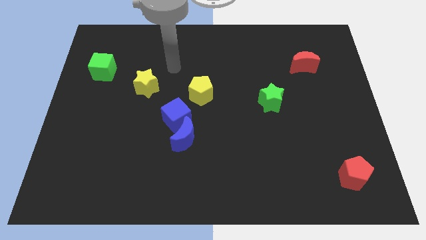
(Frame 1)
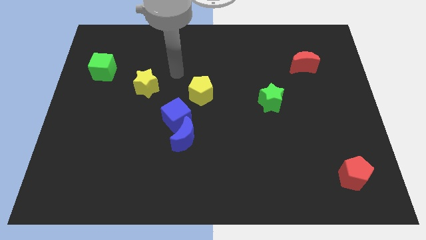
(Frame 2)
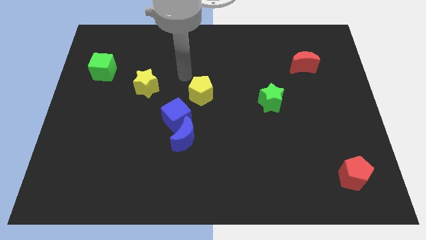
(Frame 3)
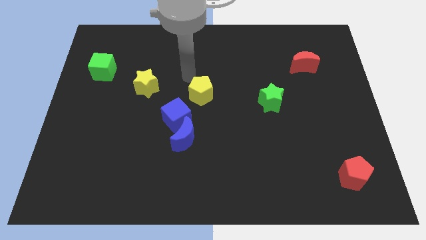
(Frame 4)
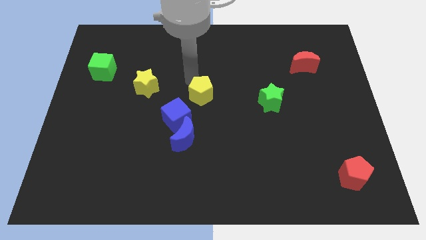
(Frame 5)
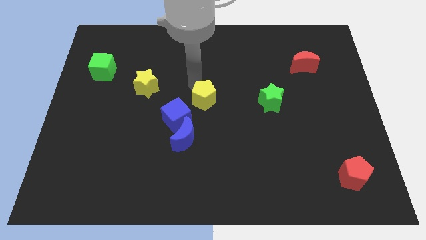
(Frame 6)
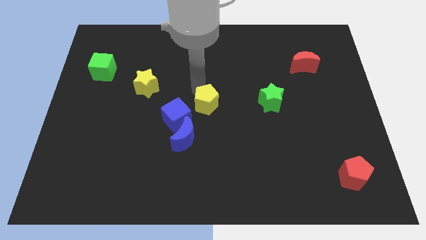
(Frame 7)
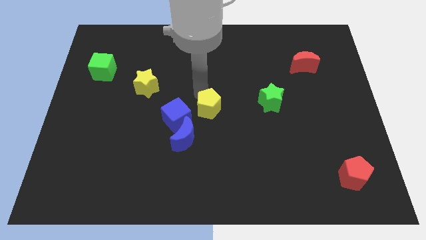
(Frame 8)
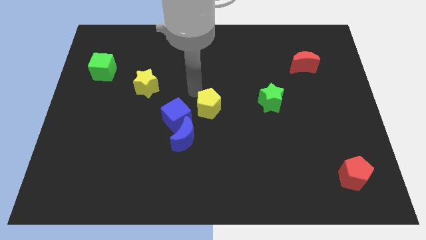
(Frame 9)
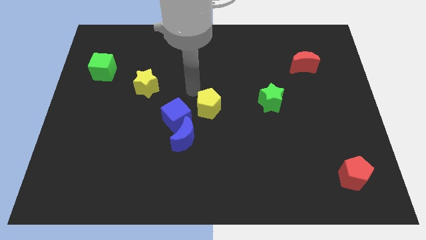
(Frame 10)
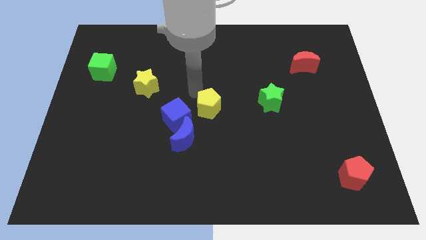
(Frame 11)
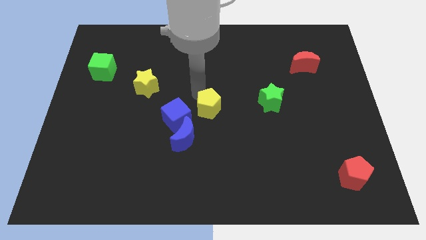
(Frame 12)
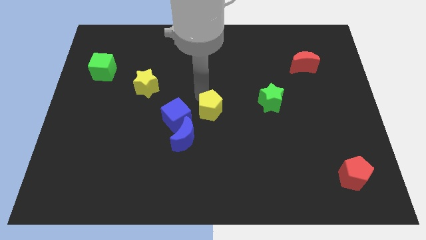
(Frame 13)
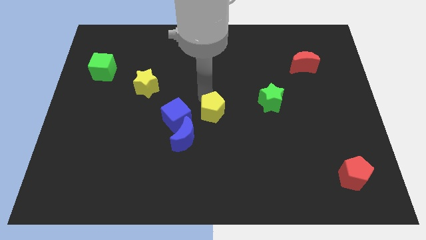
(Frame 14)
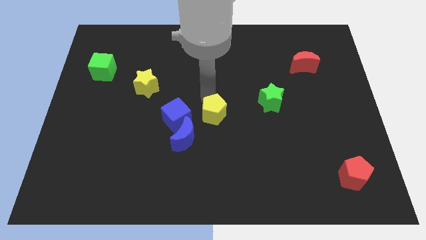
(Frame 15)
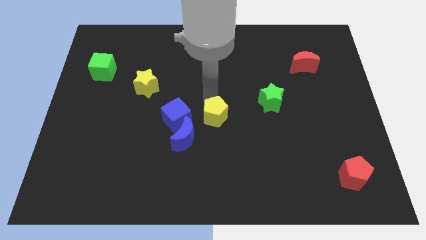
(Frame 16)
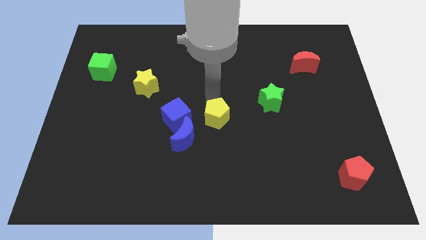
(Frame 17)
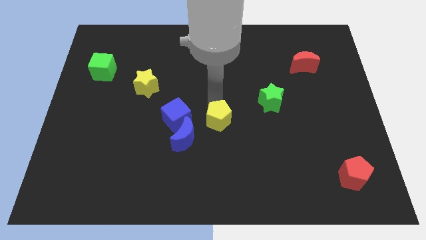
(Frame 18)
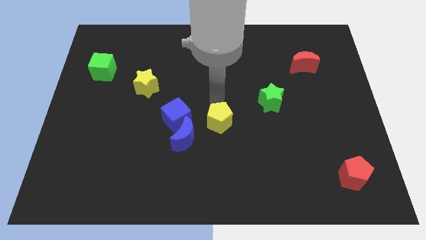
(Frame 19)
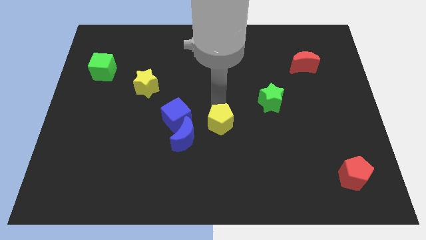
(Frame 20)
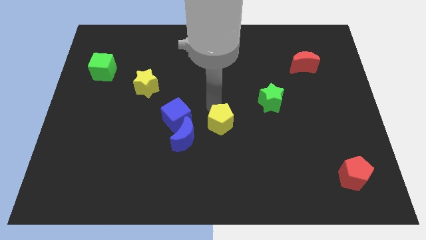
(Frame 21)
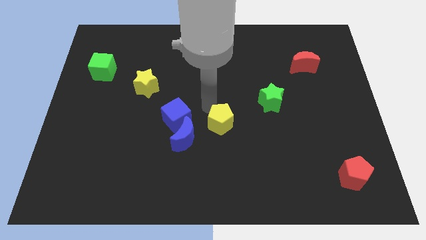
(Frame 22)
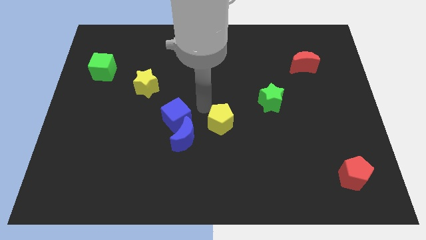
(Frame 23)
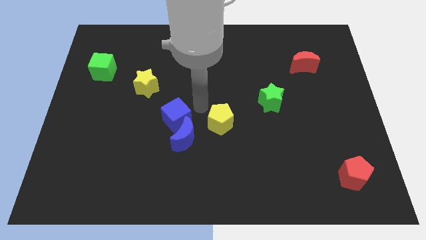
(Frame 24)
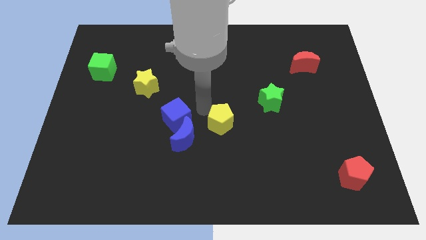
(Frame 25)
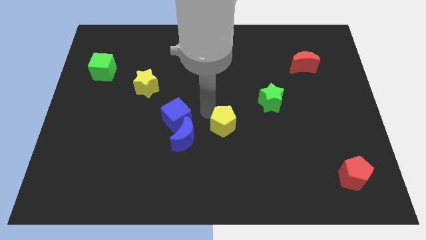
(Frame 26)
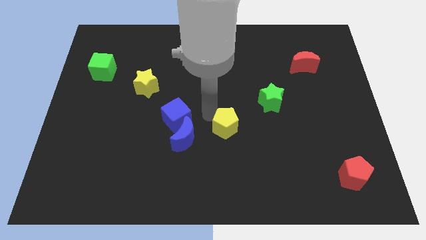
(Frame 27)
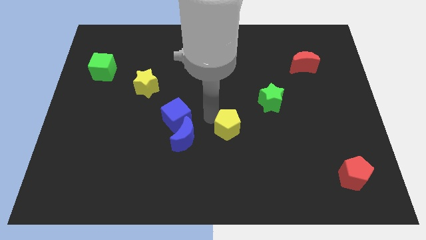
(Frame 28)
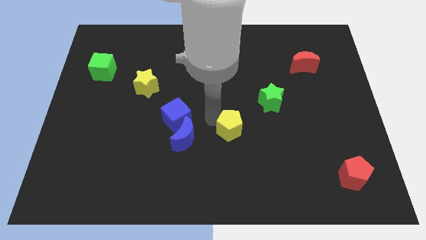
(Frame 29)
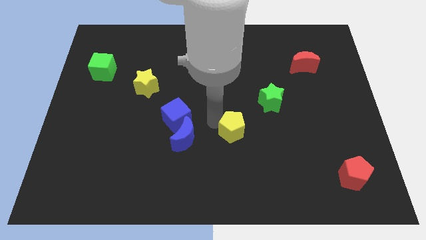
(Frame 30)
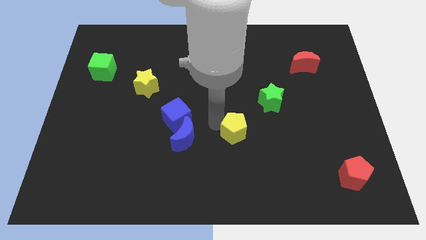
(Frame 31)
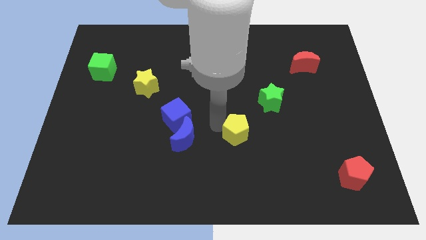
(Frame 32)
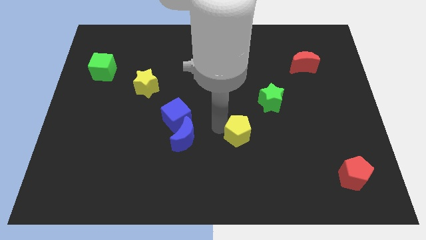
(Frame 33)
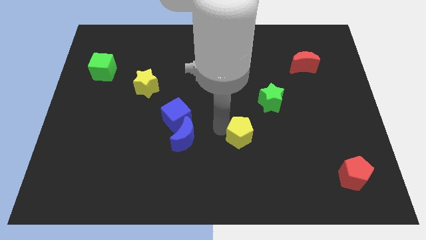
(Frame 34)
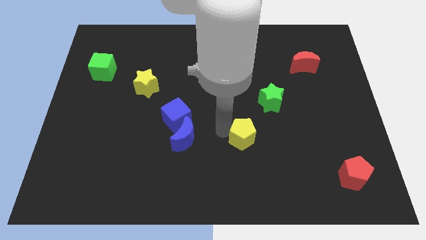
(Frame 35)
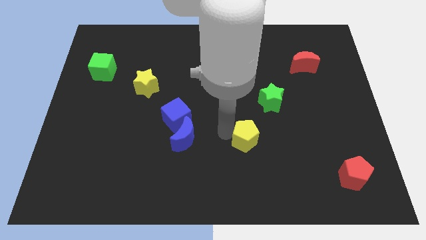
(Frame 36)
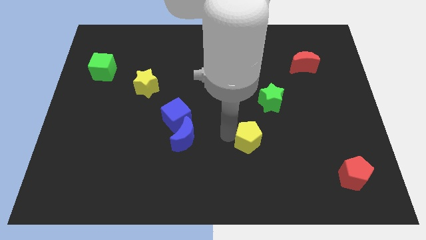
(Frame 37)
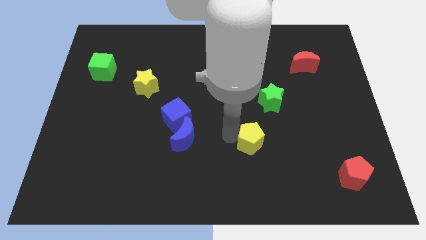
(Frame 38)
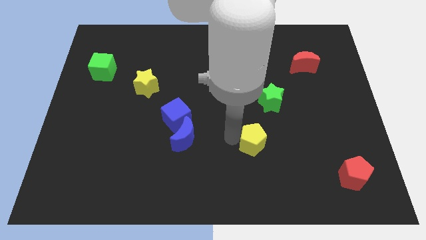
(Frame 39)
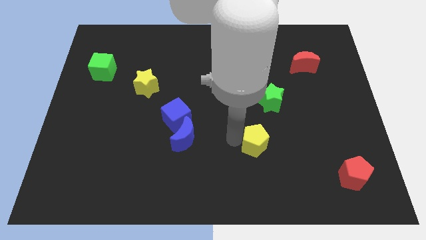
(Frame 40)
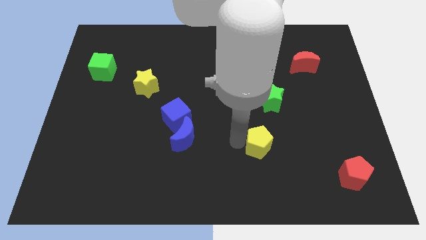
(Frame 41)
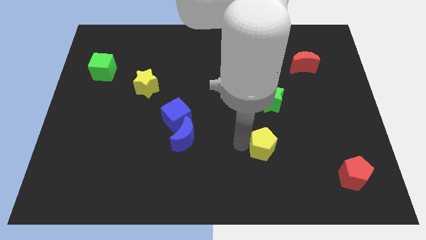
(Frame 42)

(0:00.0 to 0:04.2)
push the yellow pentagon downwards and then right

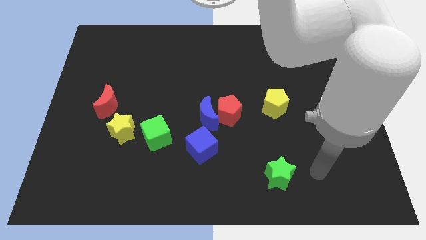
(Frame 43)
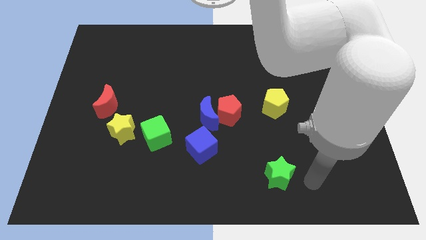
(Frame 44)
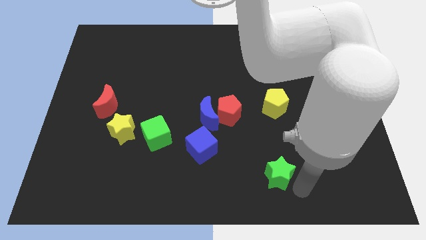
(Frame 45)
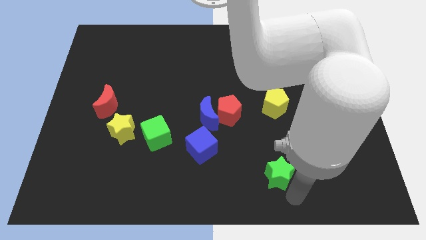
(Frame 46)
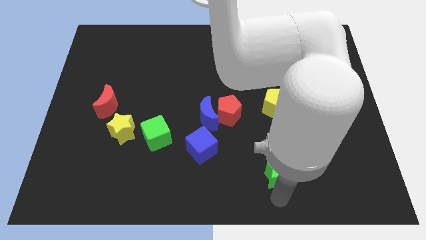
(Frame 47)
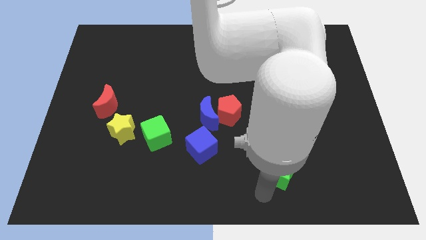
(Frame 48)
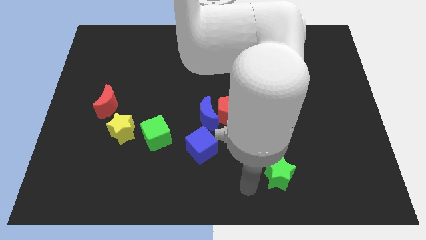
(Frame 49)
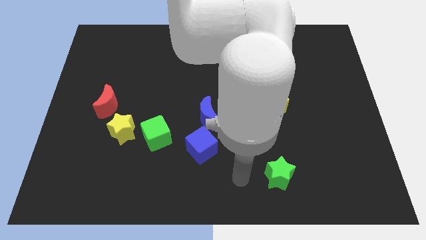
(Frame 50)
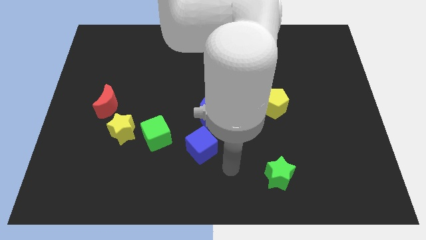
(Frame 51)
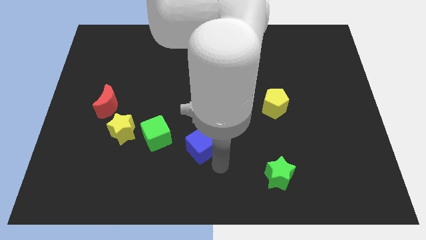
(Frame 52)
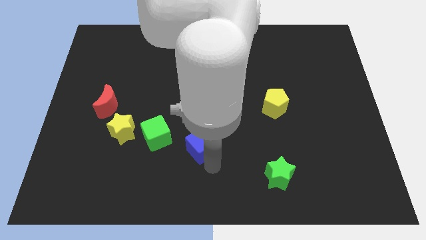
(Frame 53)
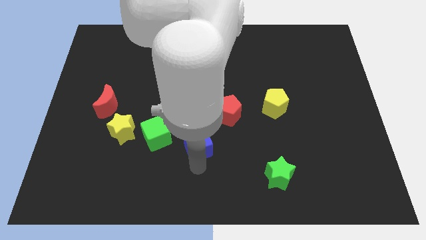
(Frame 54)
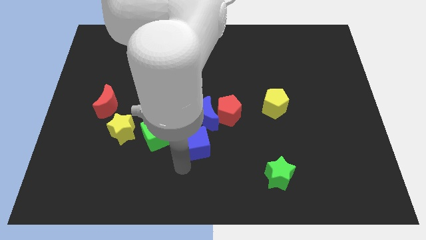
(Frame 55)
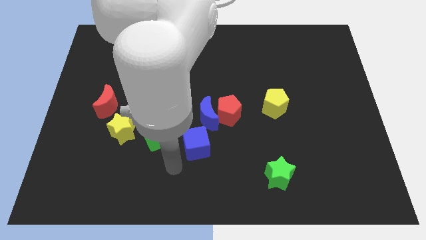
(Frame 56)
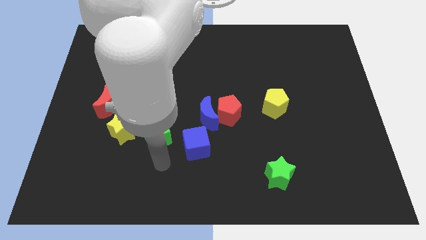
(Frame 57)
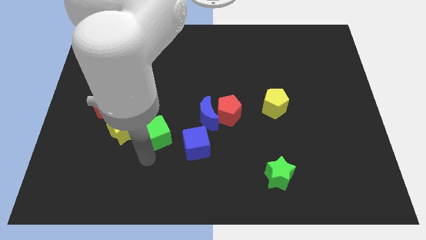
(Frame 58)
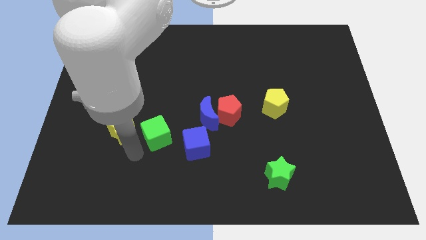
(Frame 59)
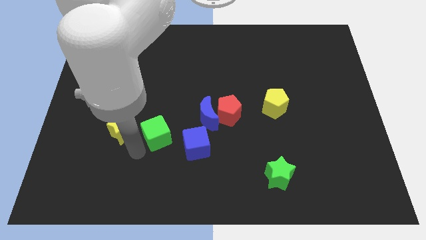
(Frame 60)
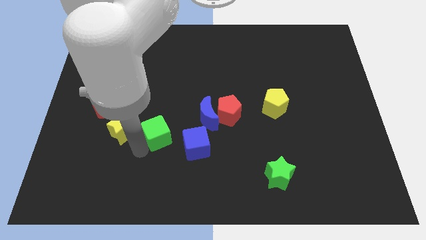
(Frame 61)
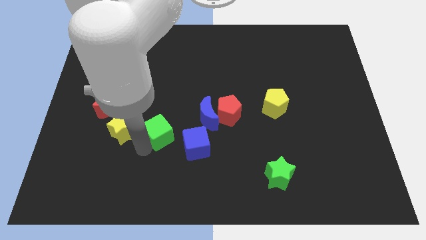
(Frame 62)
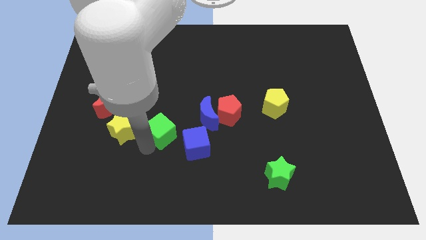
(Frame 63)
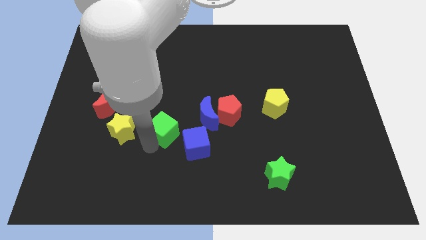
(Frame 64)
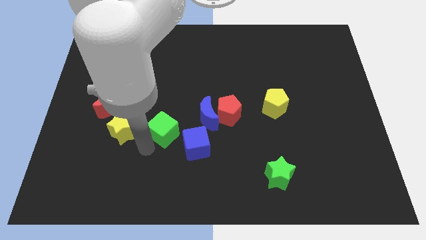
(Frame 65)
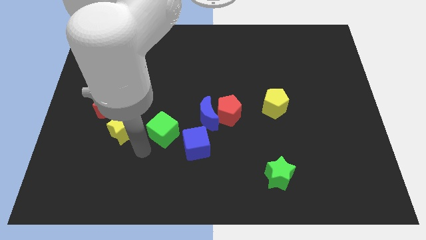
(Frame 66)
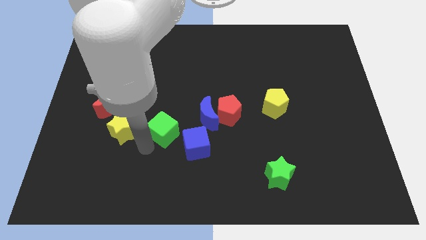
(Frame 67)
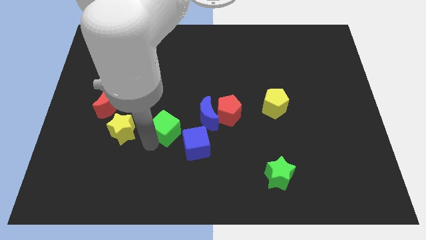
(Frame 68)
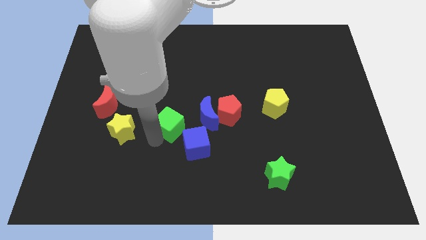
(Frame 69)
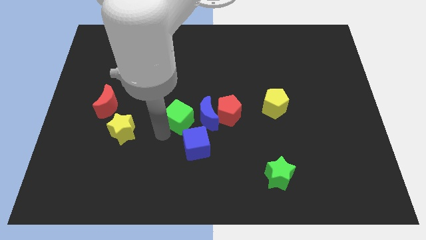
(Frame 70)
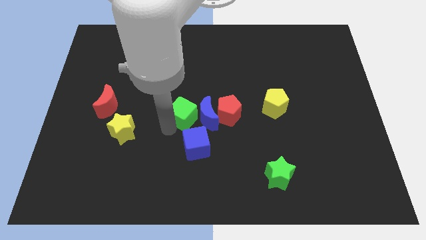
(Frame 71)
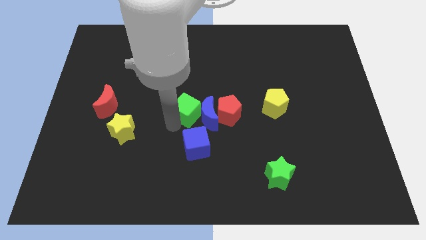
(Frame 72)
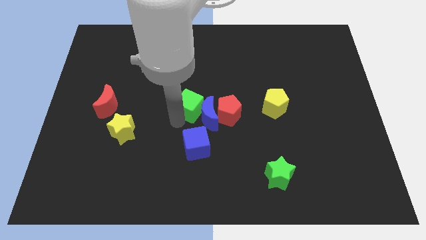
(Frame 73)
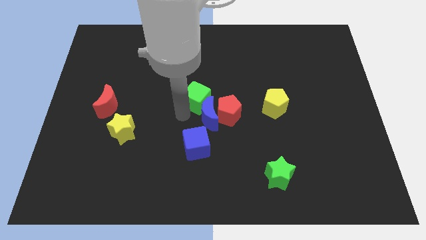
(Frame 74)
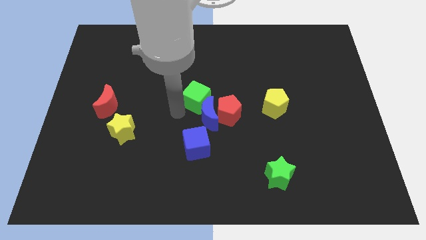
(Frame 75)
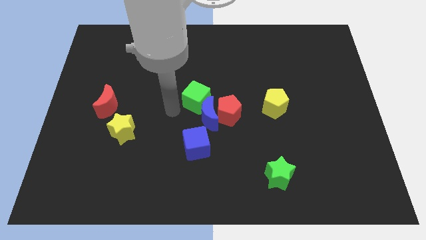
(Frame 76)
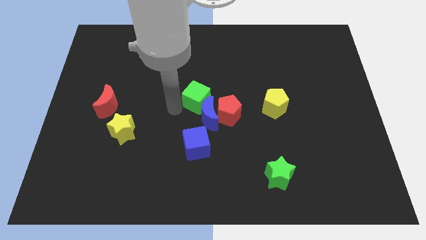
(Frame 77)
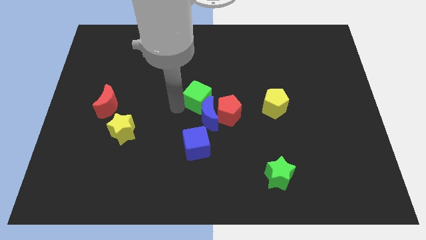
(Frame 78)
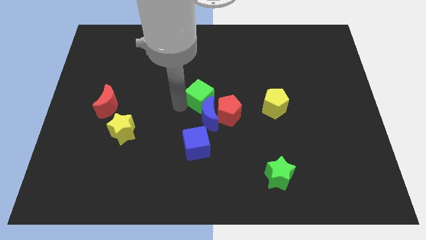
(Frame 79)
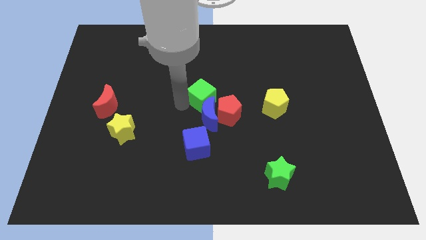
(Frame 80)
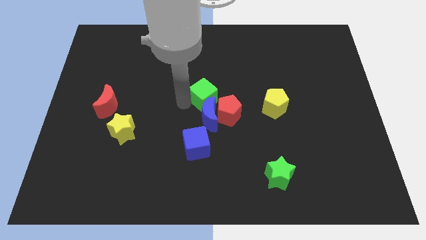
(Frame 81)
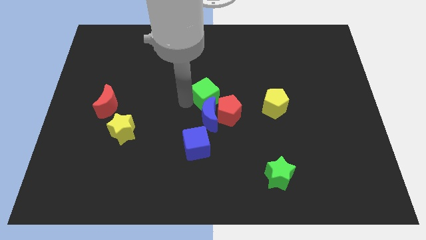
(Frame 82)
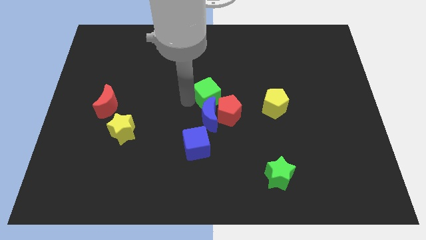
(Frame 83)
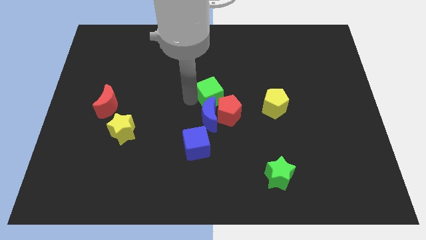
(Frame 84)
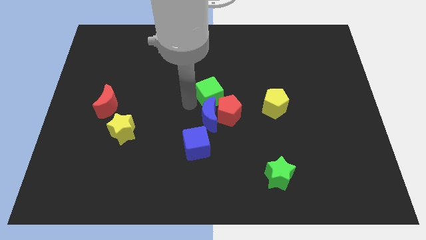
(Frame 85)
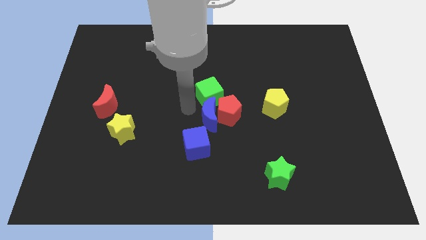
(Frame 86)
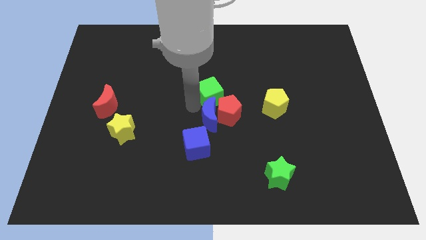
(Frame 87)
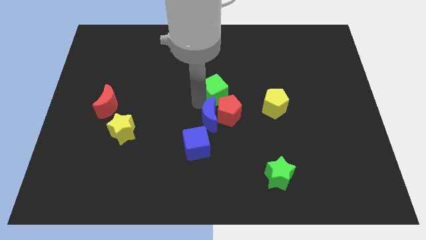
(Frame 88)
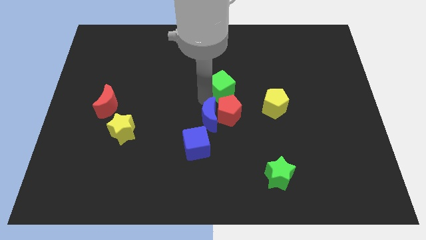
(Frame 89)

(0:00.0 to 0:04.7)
move the green cube diagonally upwards and to the right
